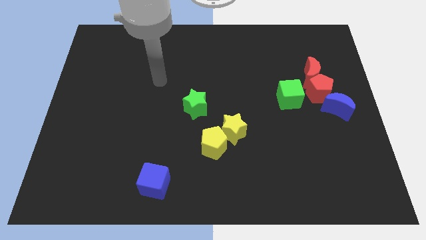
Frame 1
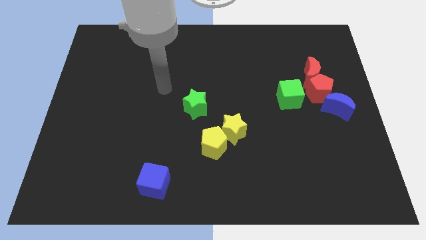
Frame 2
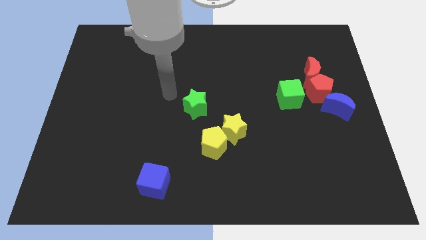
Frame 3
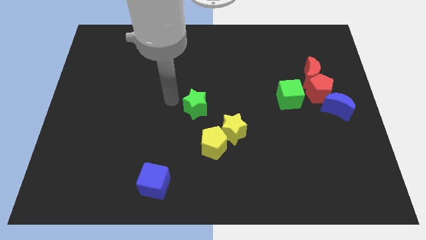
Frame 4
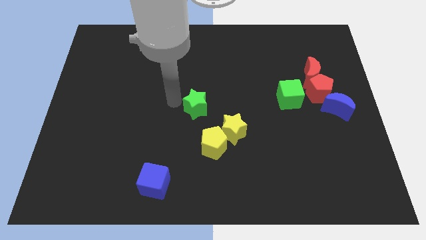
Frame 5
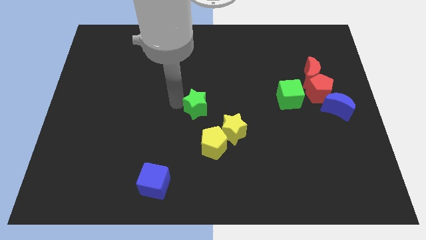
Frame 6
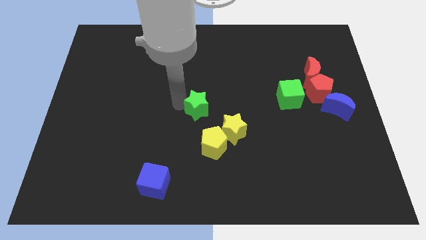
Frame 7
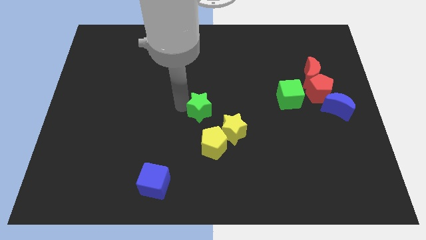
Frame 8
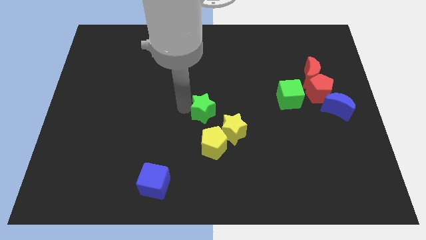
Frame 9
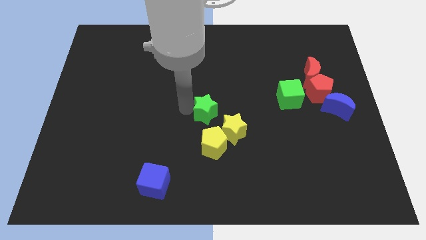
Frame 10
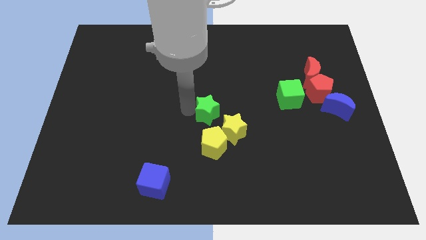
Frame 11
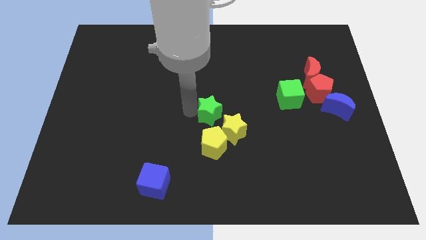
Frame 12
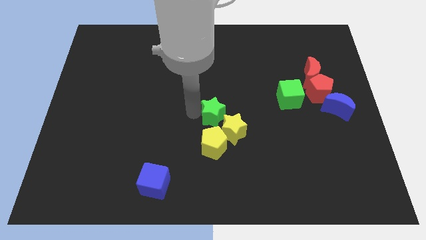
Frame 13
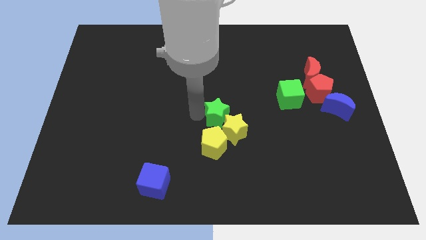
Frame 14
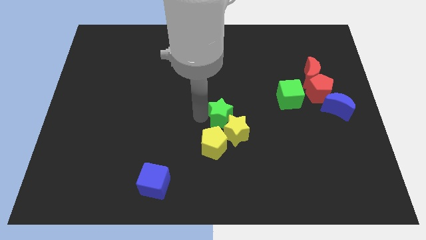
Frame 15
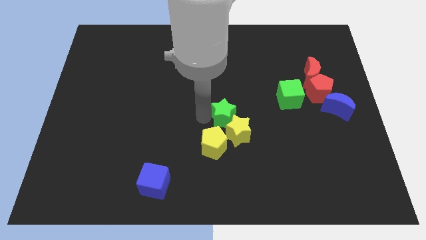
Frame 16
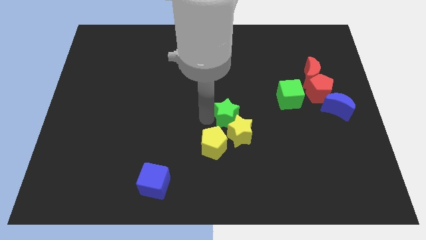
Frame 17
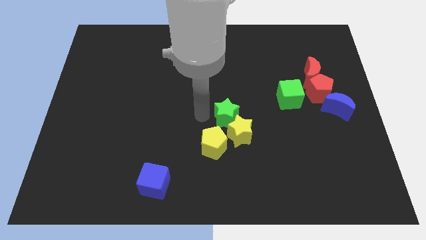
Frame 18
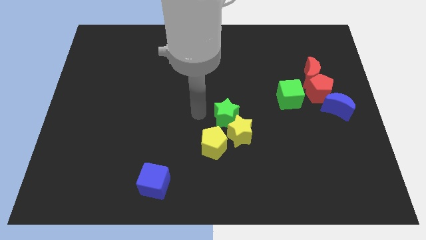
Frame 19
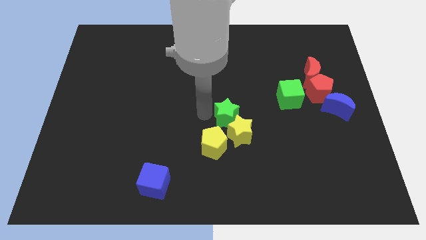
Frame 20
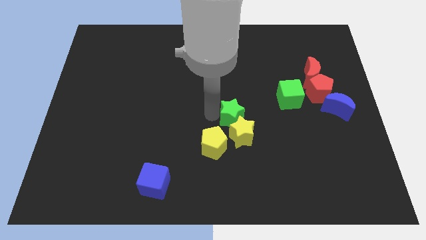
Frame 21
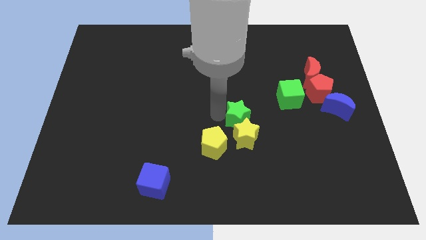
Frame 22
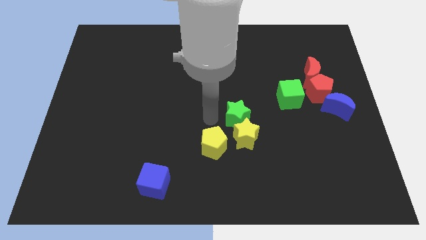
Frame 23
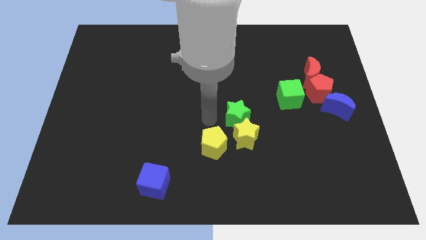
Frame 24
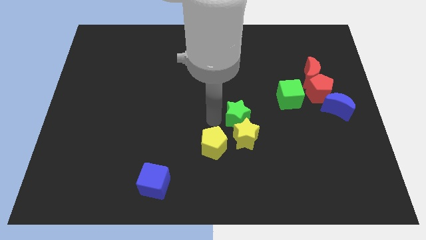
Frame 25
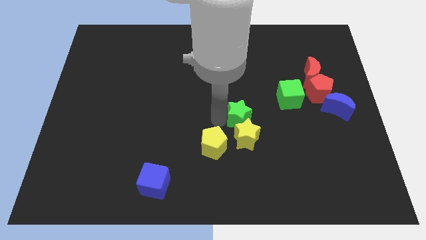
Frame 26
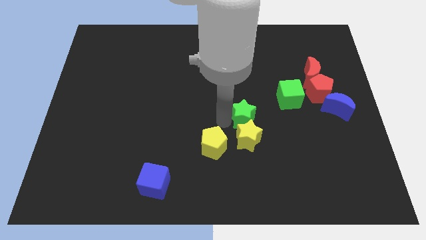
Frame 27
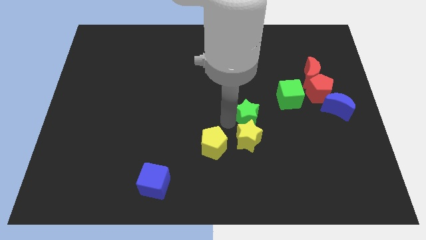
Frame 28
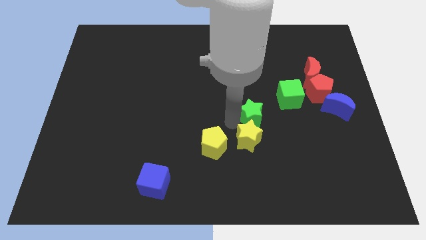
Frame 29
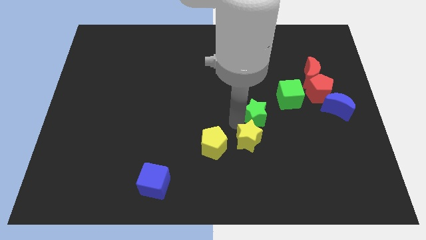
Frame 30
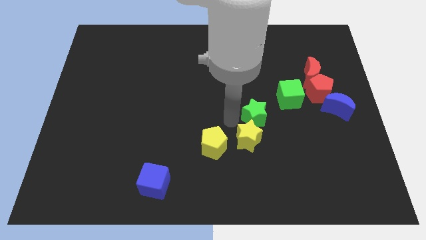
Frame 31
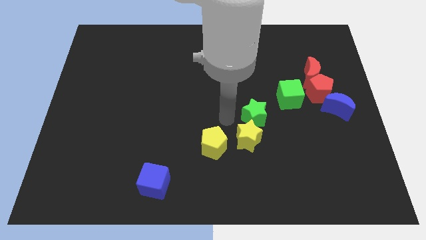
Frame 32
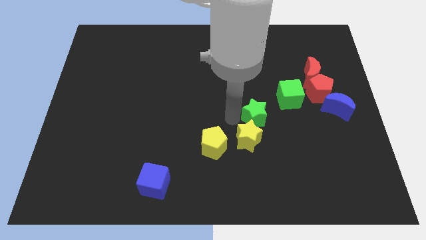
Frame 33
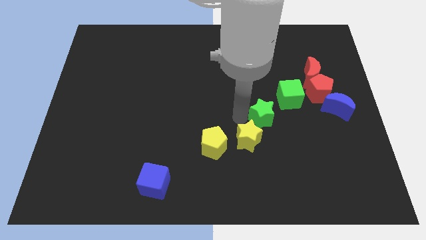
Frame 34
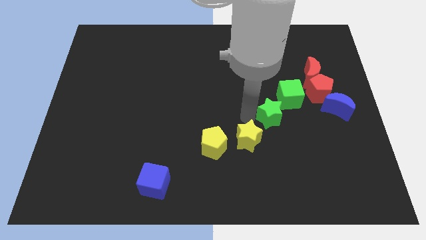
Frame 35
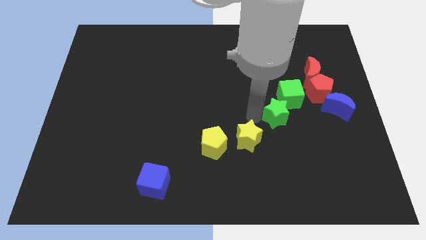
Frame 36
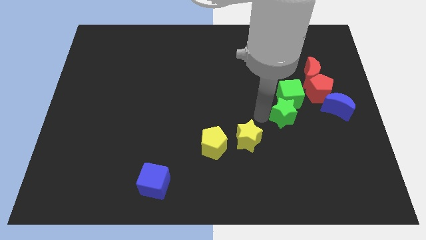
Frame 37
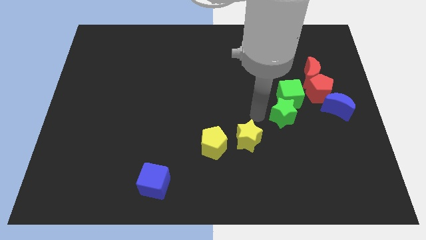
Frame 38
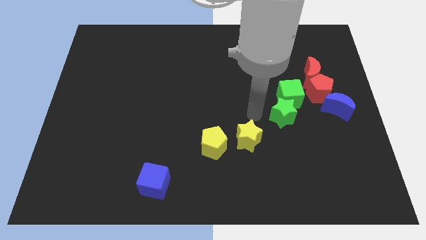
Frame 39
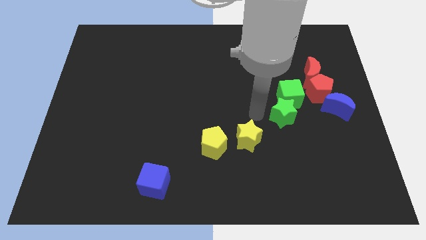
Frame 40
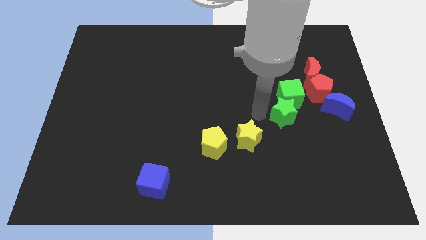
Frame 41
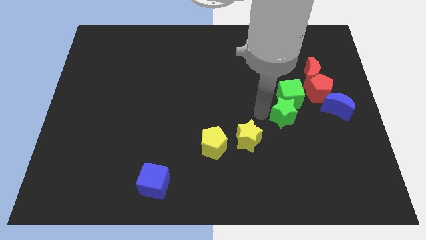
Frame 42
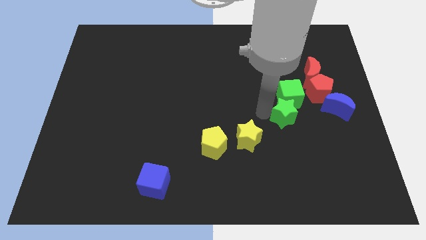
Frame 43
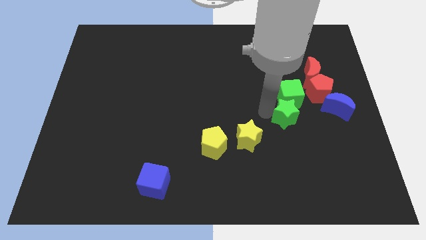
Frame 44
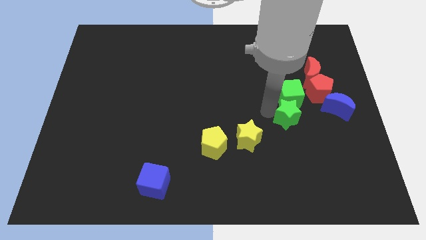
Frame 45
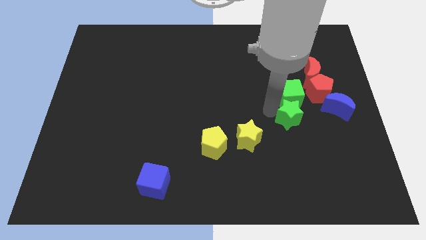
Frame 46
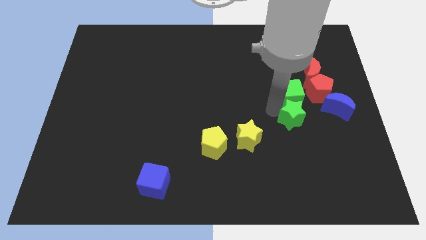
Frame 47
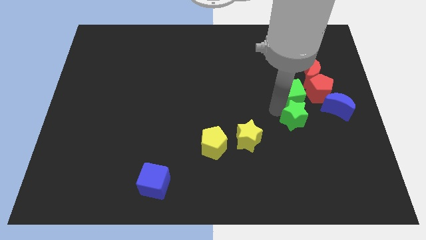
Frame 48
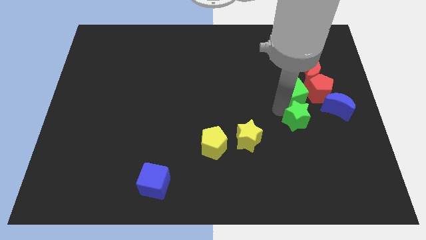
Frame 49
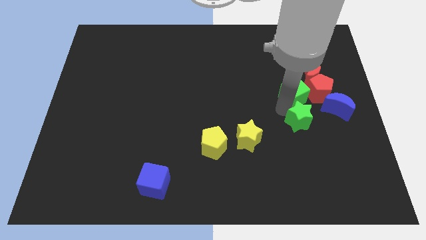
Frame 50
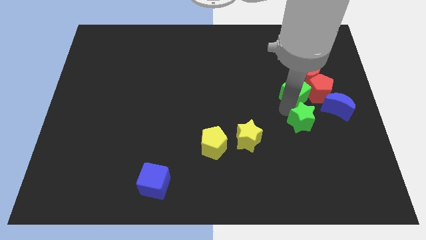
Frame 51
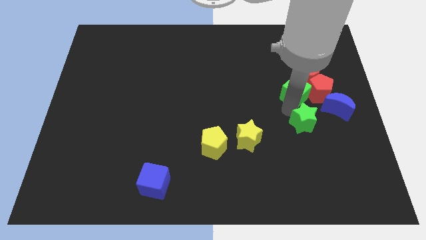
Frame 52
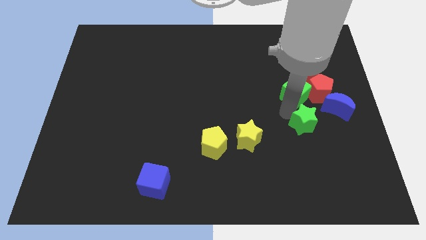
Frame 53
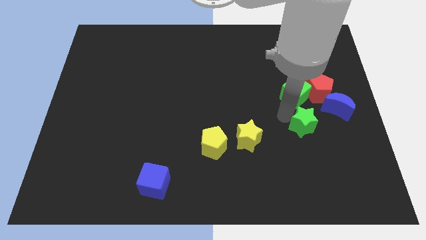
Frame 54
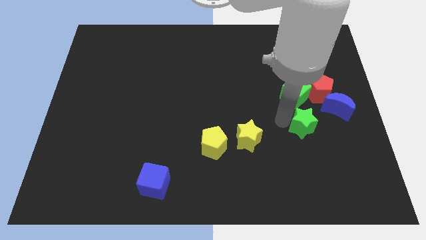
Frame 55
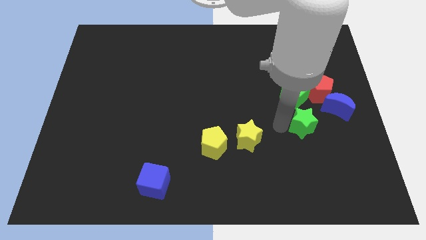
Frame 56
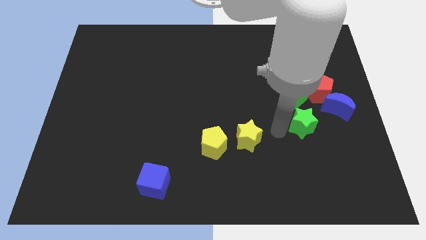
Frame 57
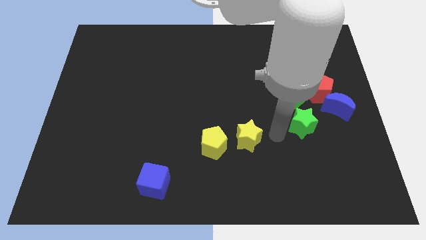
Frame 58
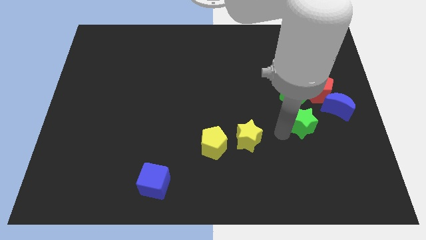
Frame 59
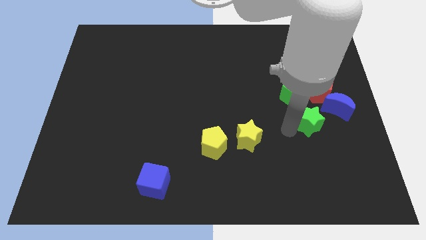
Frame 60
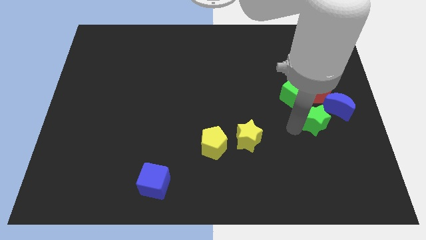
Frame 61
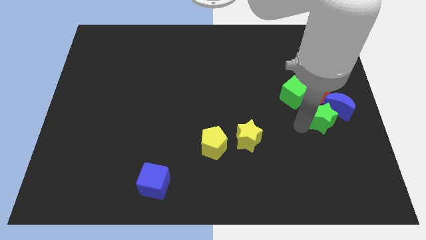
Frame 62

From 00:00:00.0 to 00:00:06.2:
slide the green star towards the blue moon
